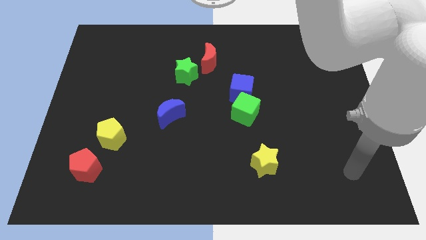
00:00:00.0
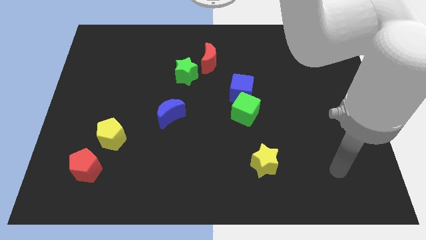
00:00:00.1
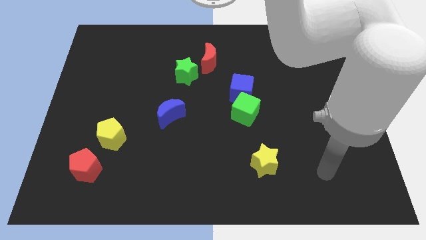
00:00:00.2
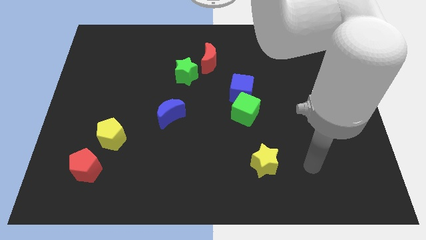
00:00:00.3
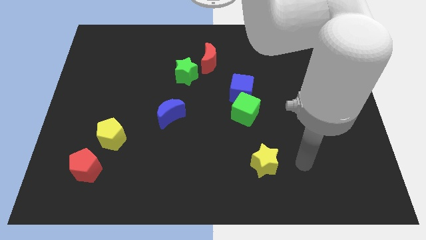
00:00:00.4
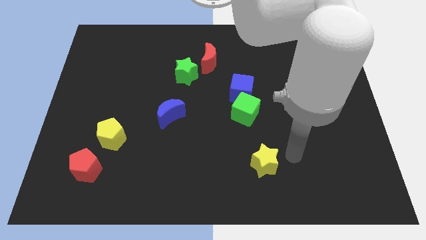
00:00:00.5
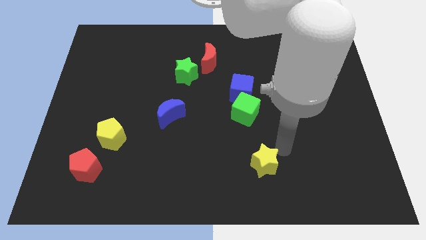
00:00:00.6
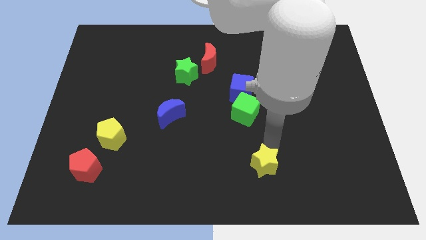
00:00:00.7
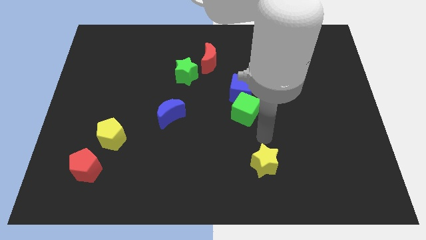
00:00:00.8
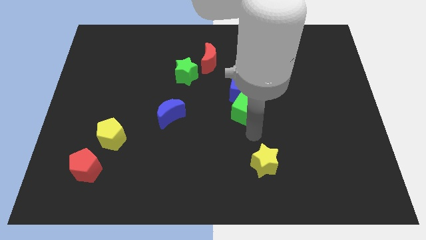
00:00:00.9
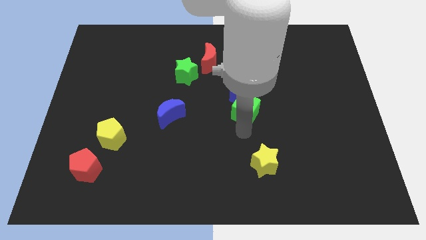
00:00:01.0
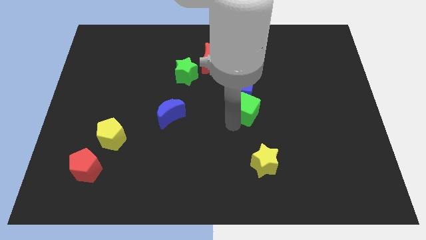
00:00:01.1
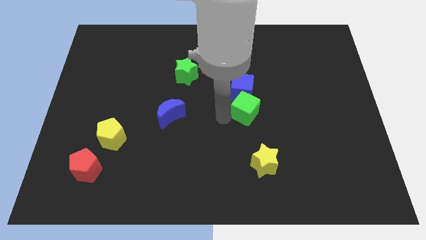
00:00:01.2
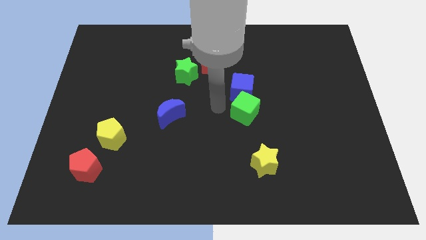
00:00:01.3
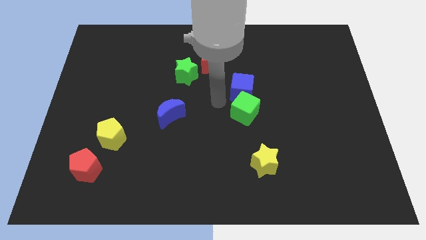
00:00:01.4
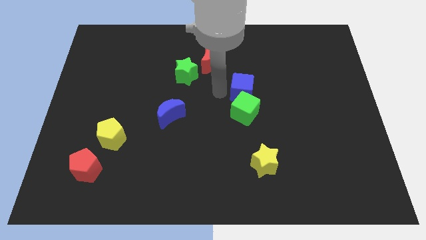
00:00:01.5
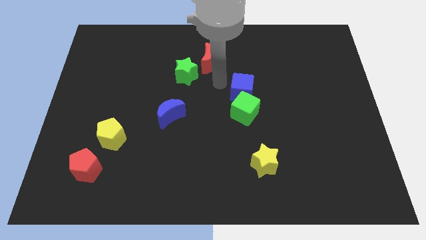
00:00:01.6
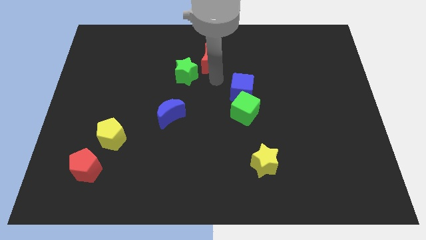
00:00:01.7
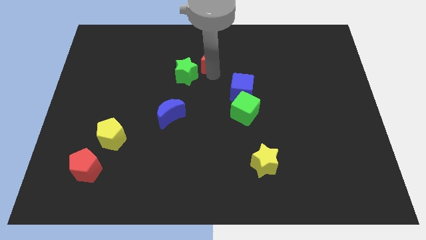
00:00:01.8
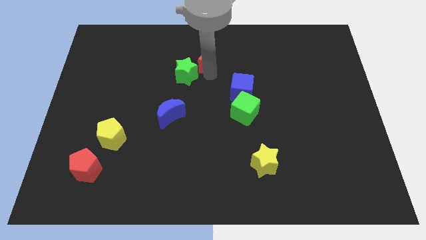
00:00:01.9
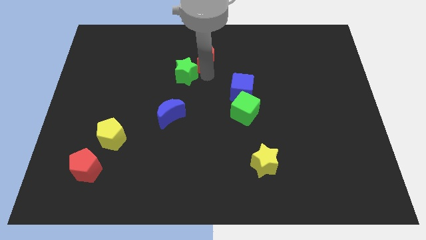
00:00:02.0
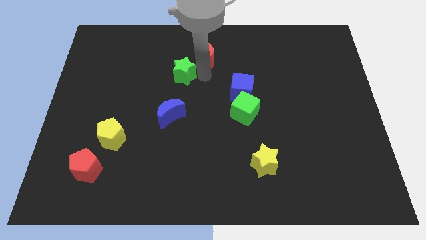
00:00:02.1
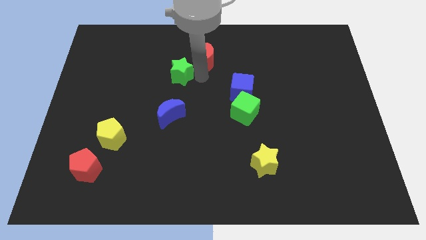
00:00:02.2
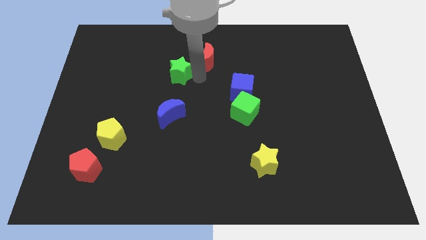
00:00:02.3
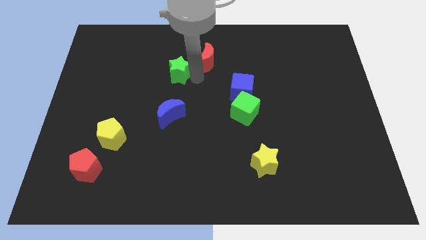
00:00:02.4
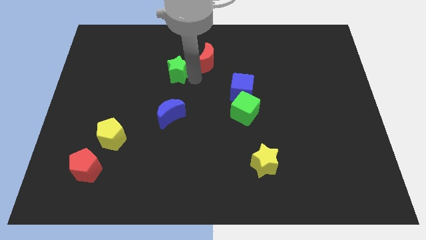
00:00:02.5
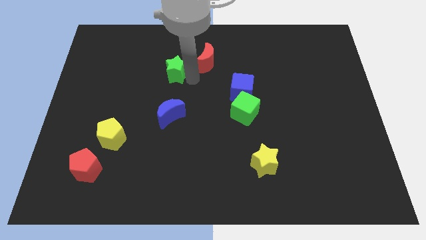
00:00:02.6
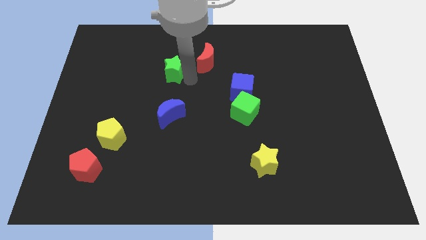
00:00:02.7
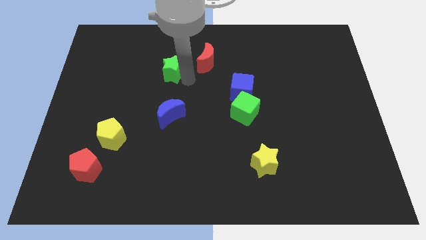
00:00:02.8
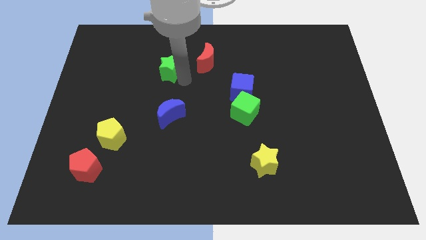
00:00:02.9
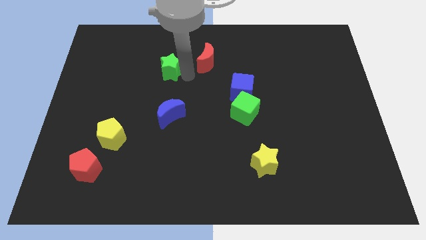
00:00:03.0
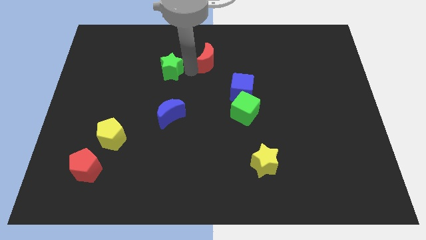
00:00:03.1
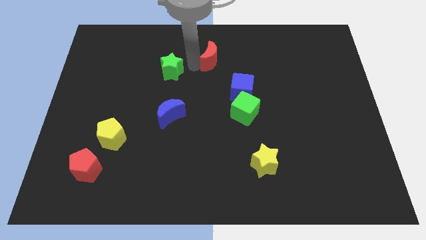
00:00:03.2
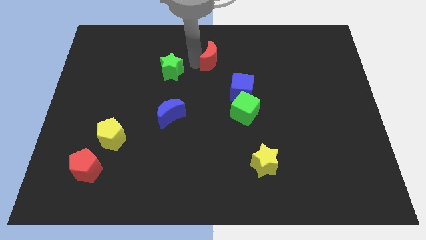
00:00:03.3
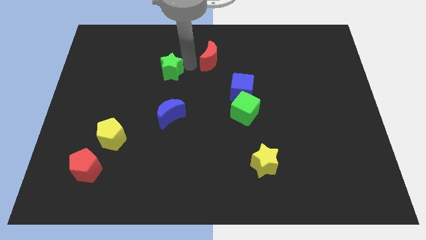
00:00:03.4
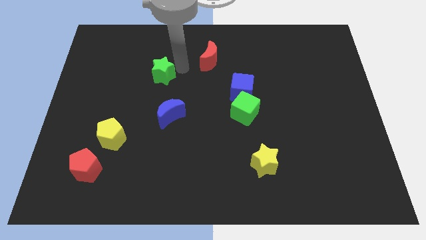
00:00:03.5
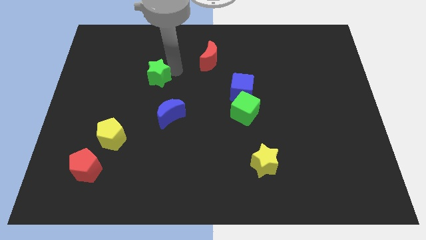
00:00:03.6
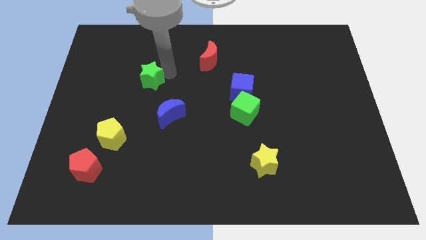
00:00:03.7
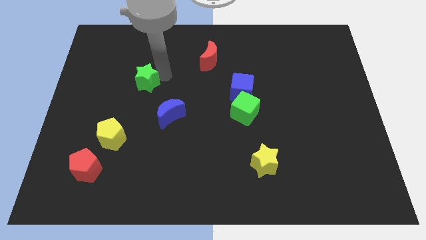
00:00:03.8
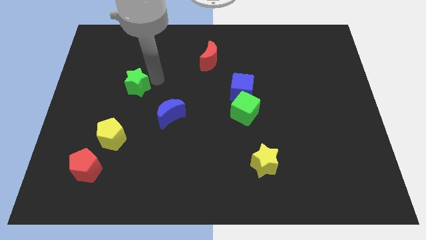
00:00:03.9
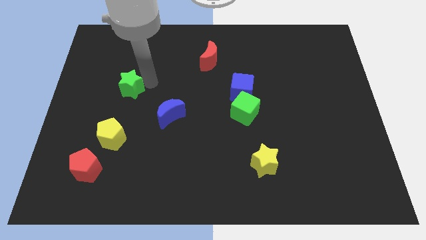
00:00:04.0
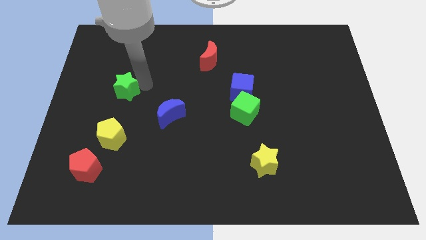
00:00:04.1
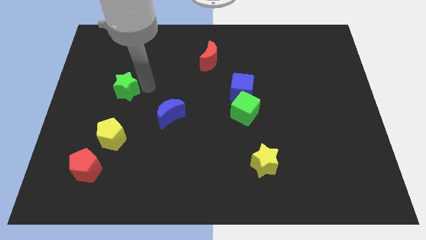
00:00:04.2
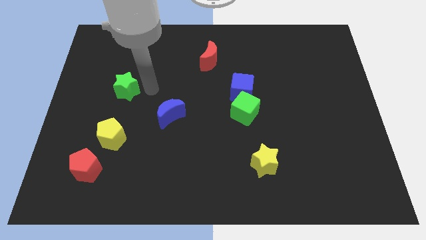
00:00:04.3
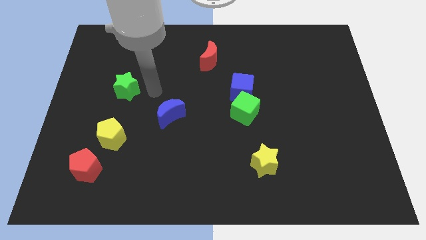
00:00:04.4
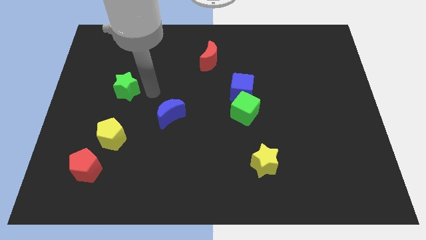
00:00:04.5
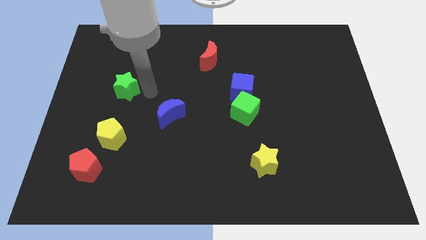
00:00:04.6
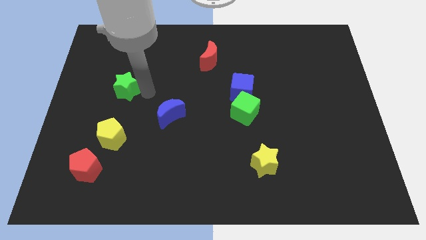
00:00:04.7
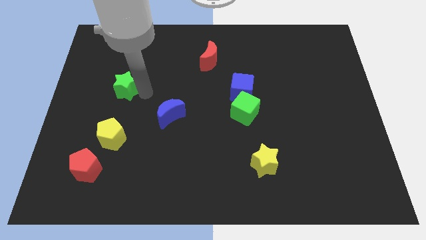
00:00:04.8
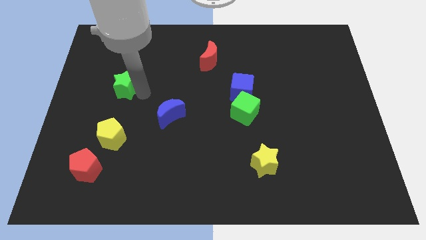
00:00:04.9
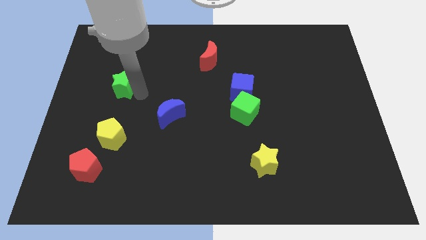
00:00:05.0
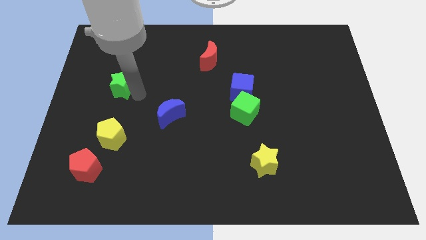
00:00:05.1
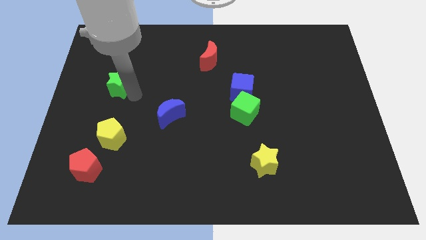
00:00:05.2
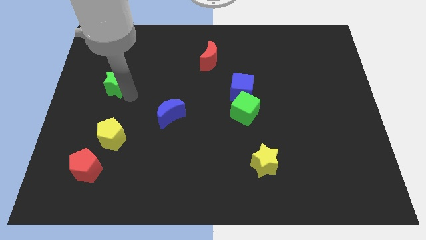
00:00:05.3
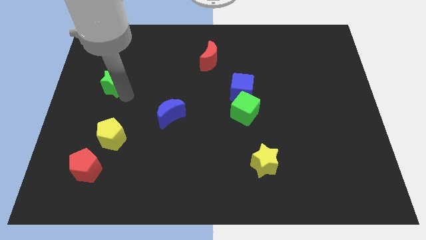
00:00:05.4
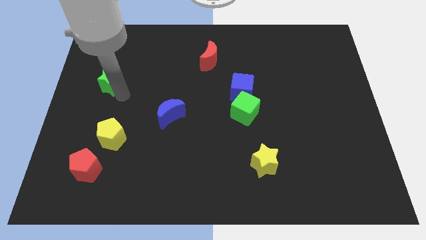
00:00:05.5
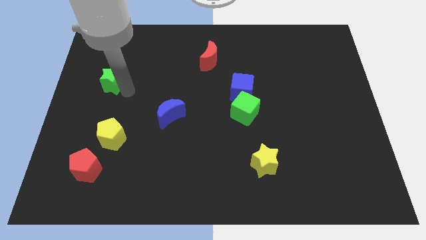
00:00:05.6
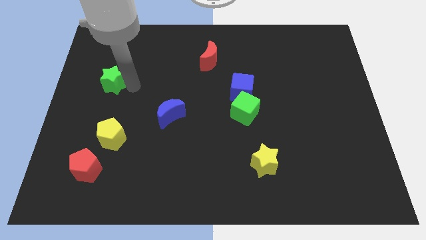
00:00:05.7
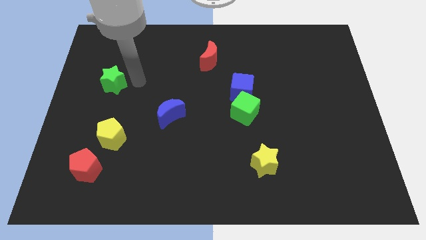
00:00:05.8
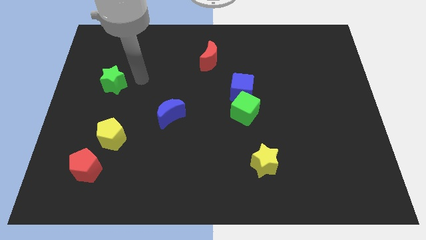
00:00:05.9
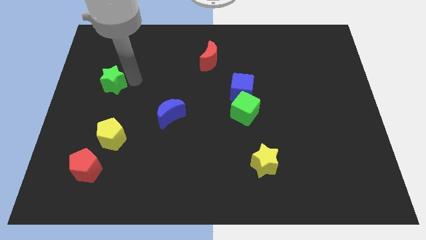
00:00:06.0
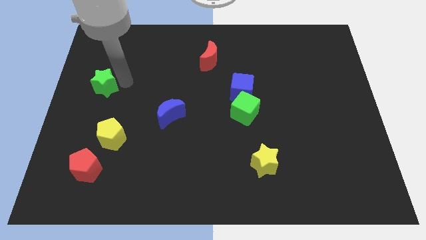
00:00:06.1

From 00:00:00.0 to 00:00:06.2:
move the green star to the left side

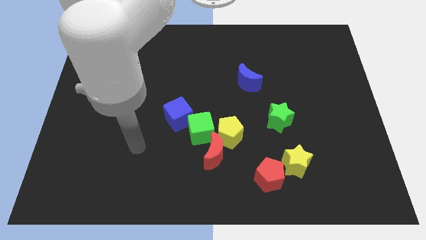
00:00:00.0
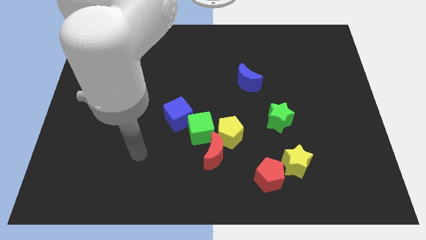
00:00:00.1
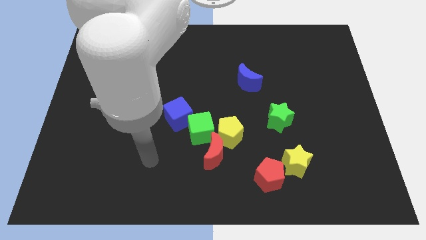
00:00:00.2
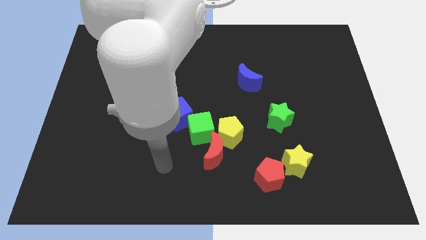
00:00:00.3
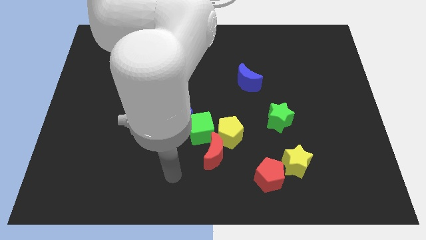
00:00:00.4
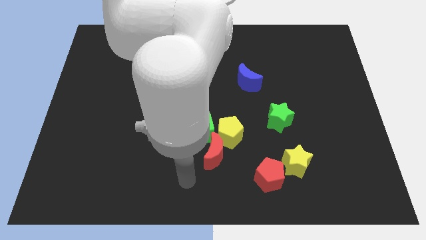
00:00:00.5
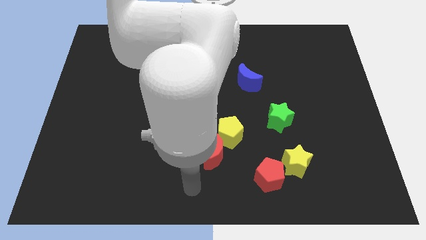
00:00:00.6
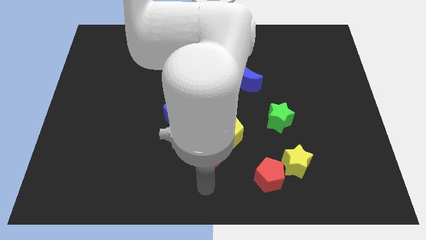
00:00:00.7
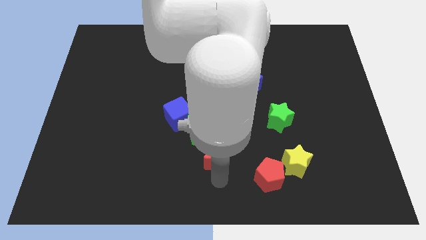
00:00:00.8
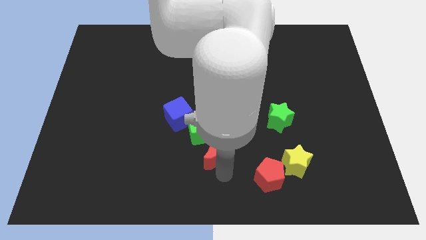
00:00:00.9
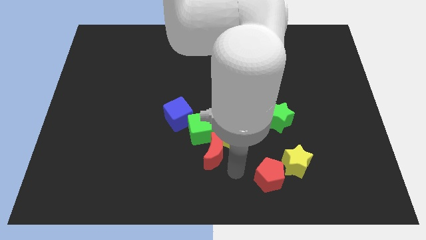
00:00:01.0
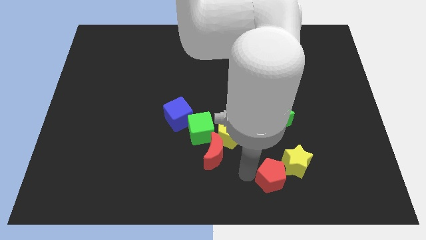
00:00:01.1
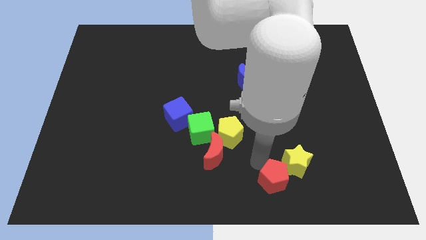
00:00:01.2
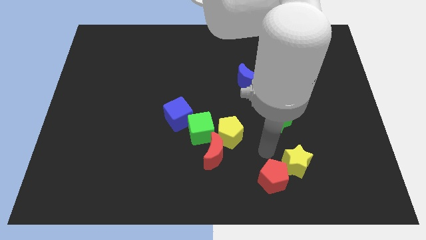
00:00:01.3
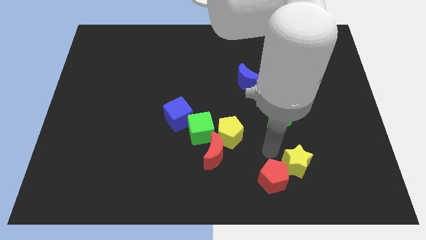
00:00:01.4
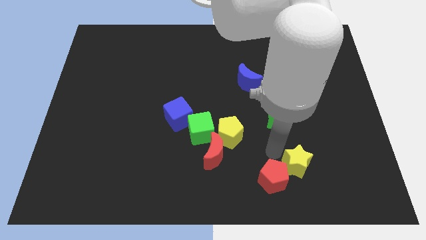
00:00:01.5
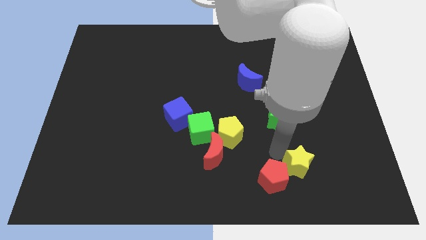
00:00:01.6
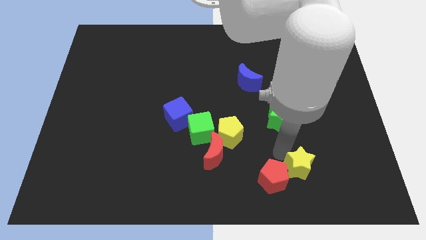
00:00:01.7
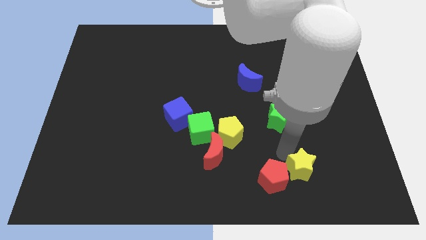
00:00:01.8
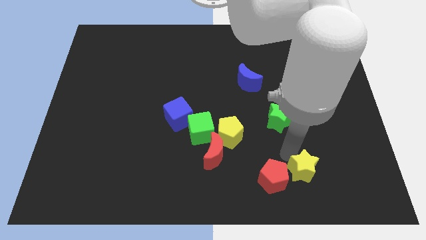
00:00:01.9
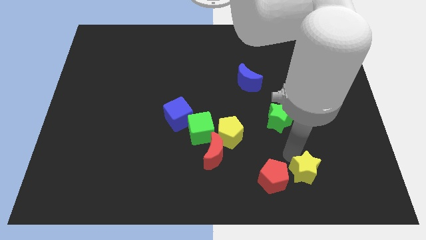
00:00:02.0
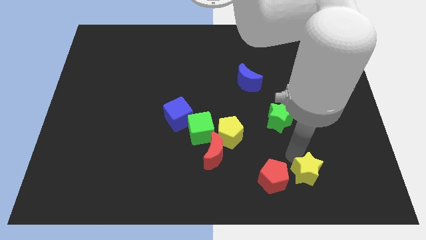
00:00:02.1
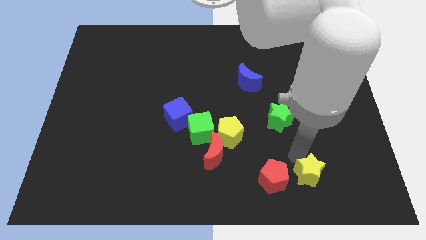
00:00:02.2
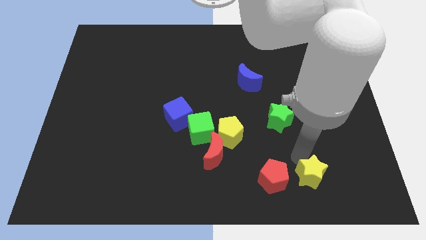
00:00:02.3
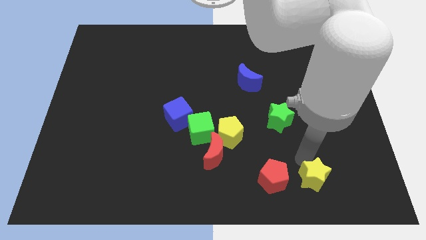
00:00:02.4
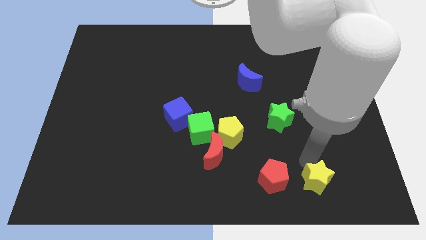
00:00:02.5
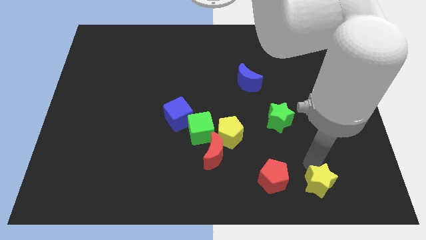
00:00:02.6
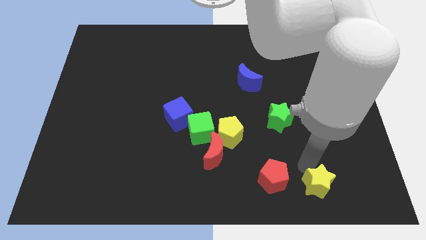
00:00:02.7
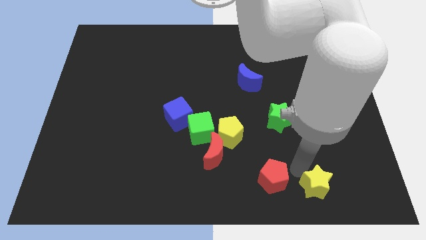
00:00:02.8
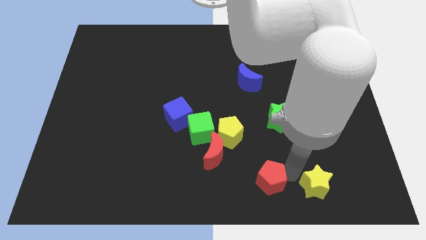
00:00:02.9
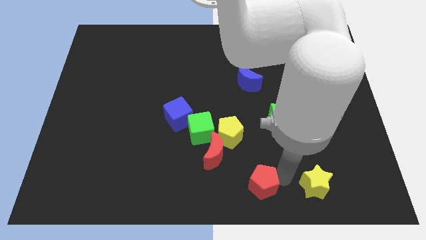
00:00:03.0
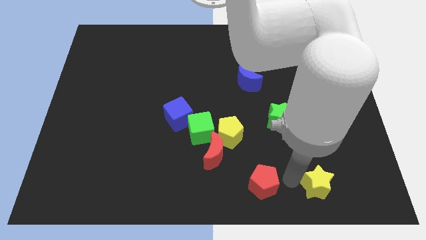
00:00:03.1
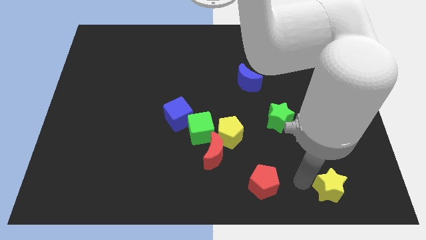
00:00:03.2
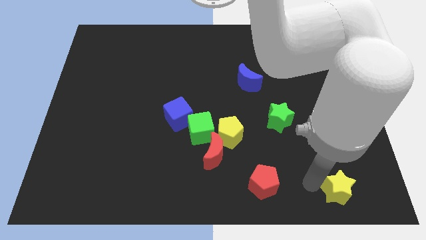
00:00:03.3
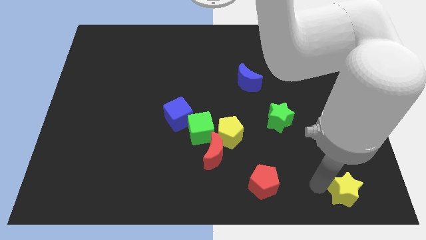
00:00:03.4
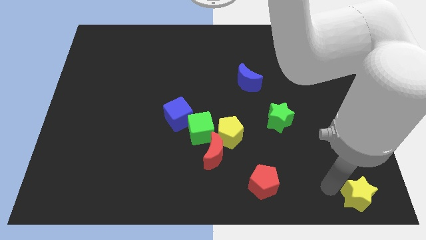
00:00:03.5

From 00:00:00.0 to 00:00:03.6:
put the yellow star to the bottom right of the board
